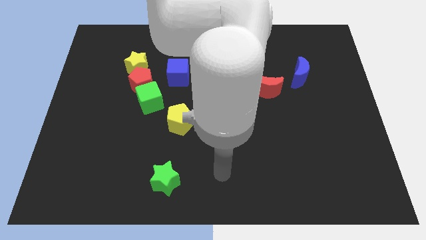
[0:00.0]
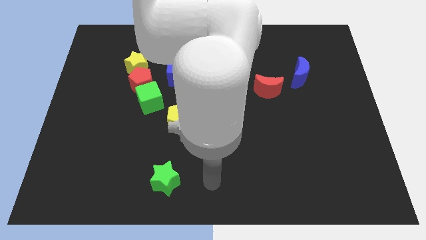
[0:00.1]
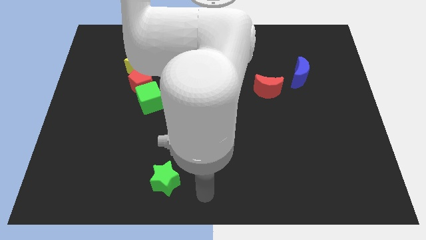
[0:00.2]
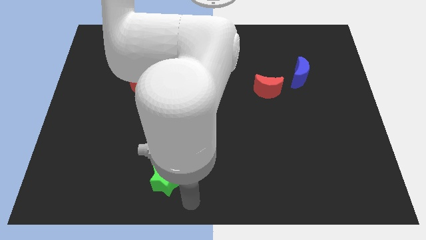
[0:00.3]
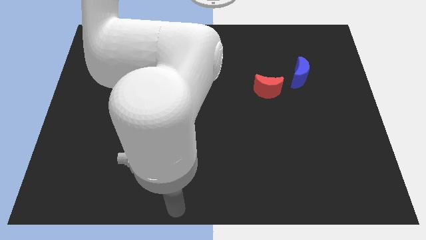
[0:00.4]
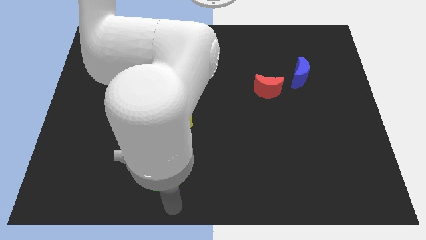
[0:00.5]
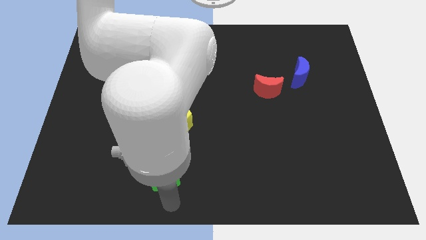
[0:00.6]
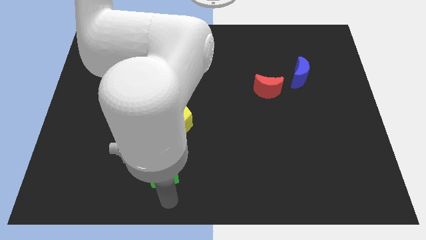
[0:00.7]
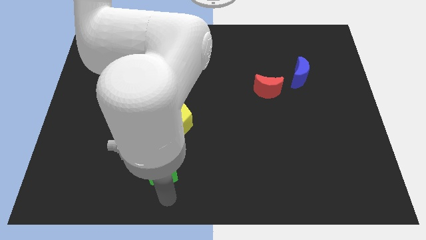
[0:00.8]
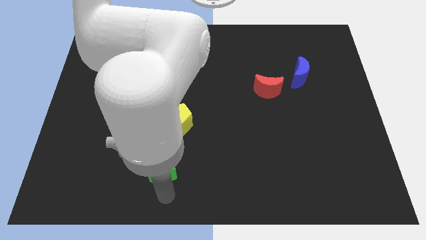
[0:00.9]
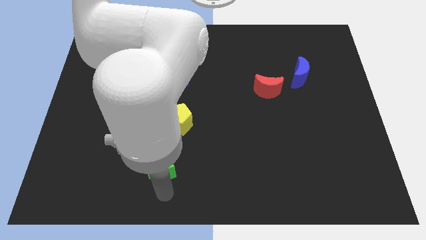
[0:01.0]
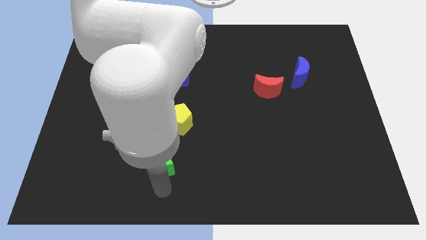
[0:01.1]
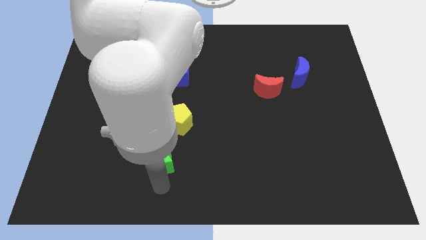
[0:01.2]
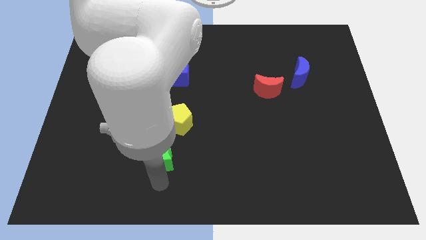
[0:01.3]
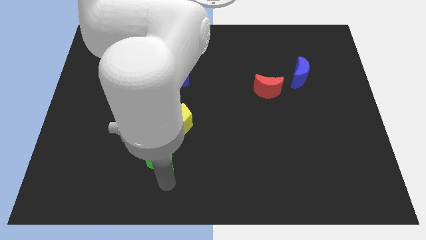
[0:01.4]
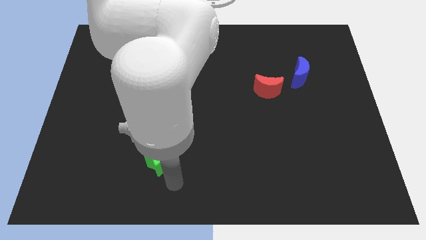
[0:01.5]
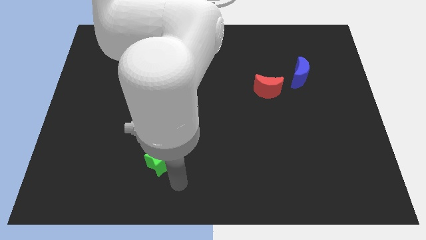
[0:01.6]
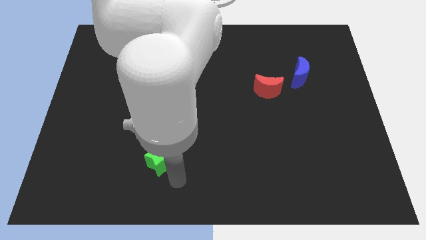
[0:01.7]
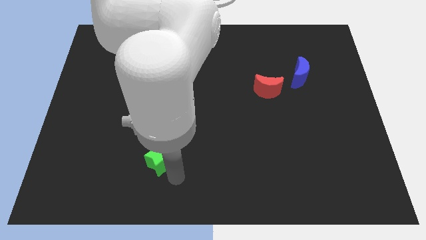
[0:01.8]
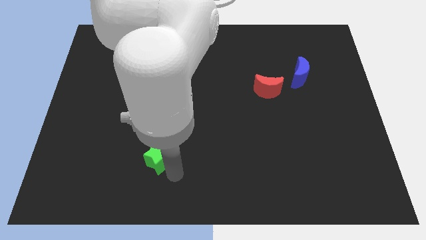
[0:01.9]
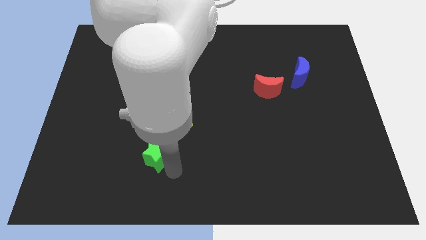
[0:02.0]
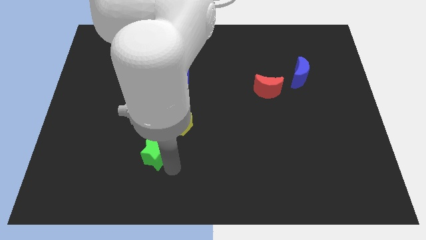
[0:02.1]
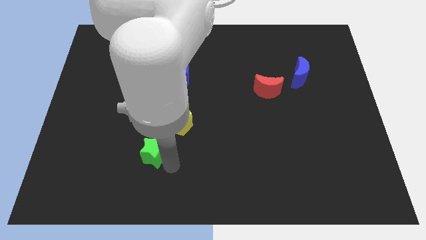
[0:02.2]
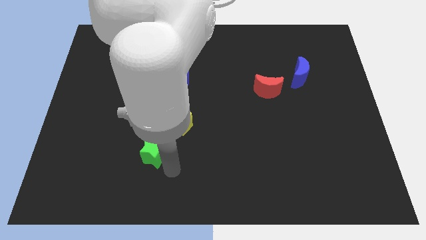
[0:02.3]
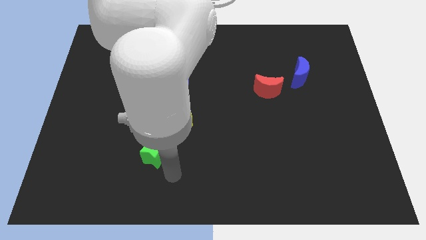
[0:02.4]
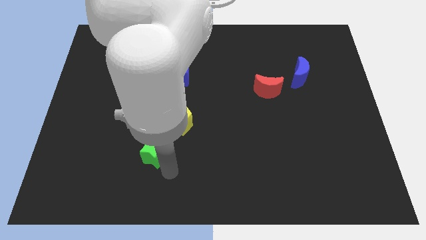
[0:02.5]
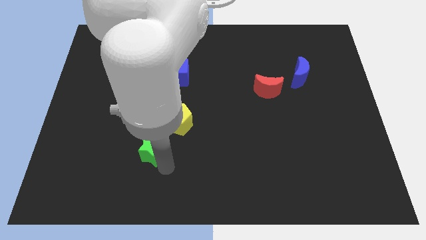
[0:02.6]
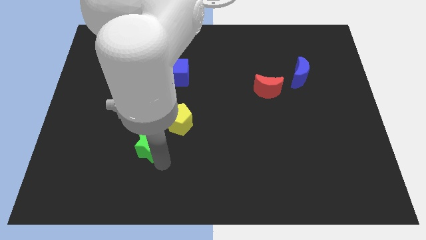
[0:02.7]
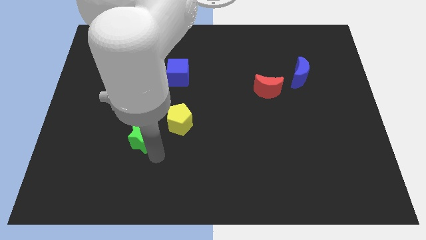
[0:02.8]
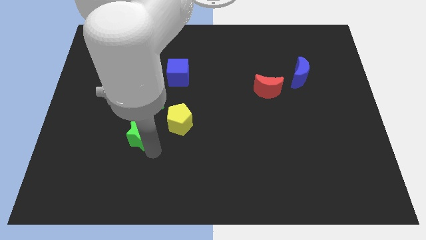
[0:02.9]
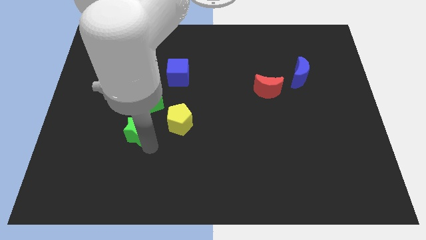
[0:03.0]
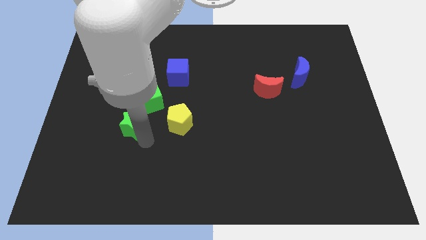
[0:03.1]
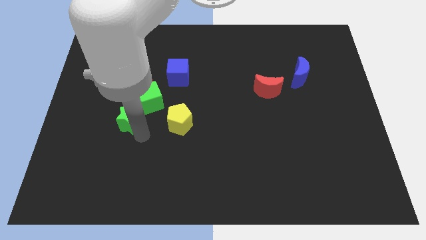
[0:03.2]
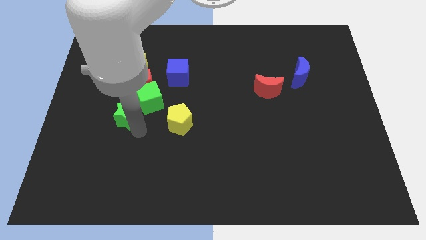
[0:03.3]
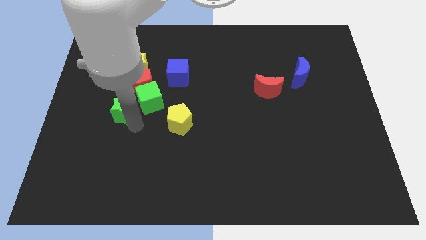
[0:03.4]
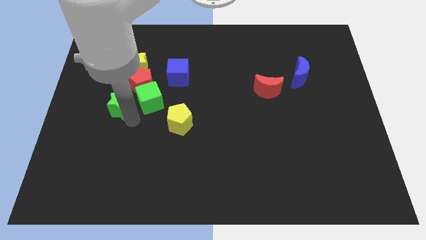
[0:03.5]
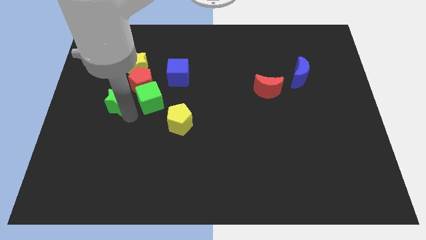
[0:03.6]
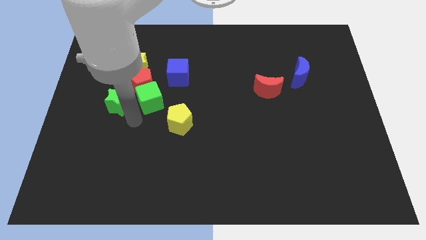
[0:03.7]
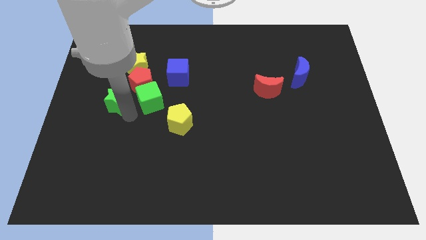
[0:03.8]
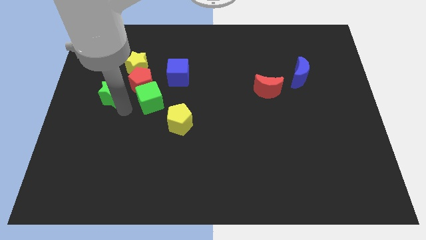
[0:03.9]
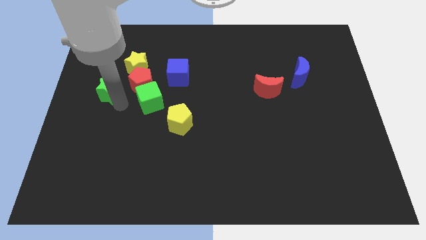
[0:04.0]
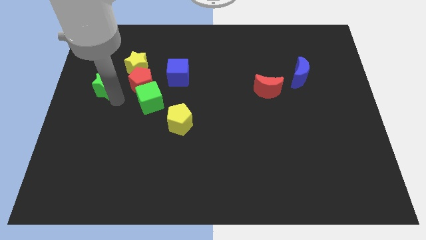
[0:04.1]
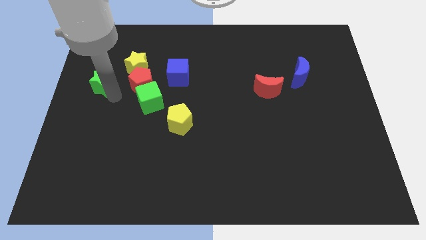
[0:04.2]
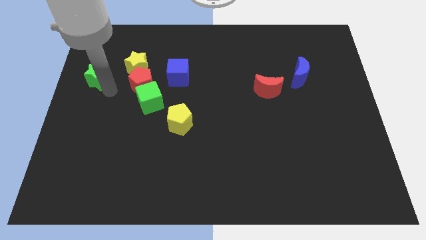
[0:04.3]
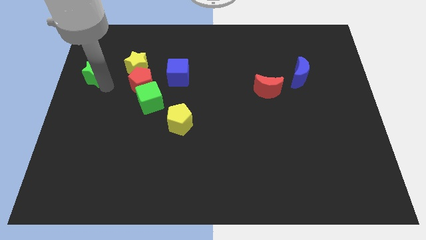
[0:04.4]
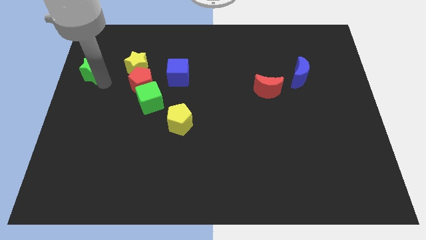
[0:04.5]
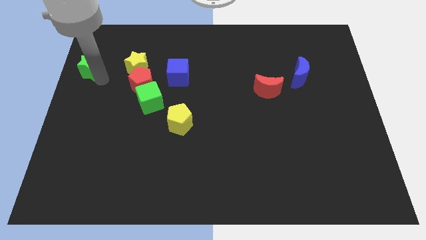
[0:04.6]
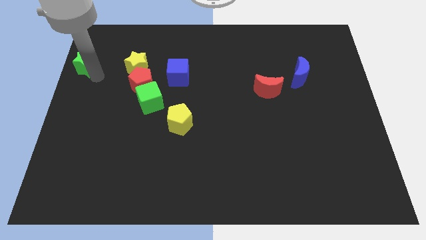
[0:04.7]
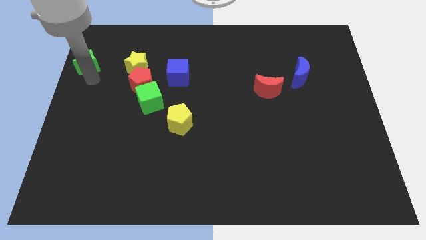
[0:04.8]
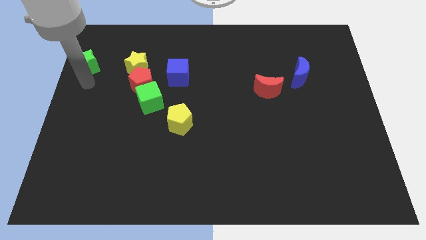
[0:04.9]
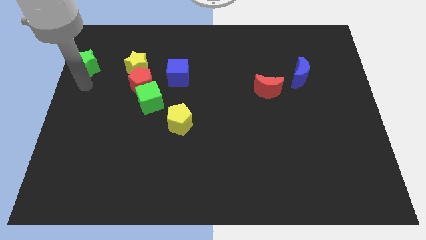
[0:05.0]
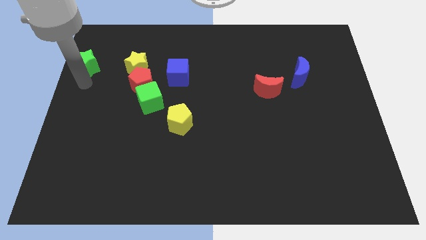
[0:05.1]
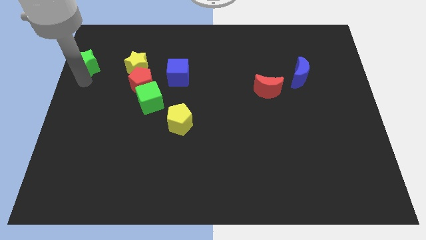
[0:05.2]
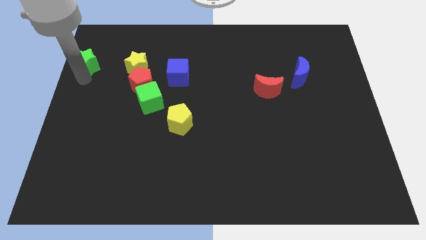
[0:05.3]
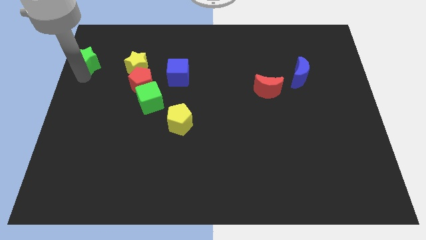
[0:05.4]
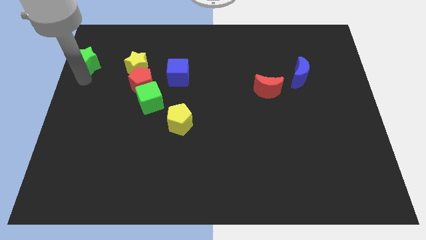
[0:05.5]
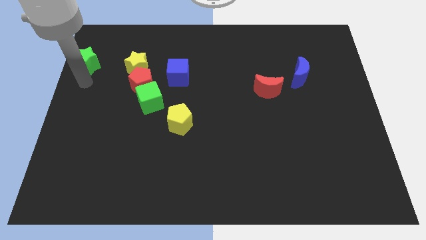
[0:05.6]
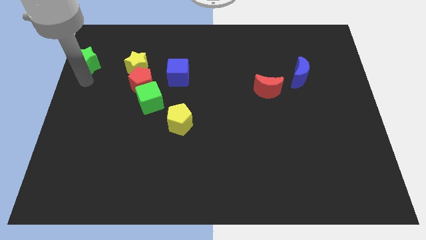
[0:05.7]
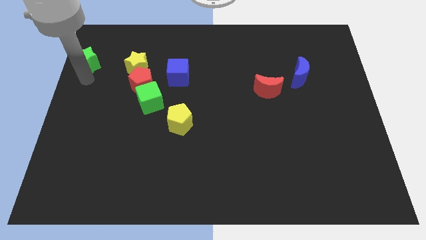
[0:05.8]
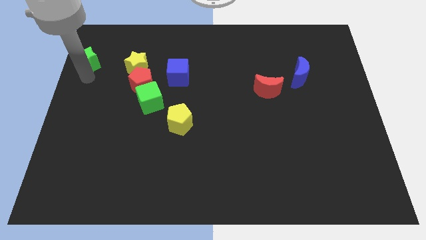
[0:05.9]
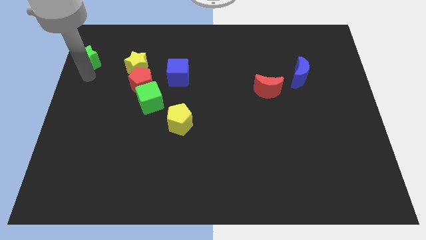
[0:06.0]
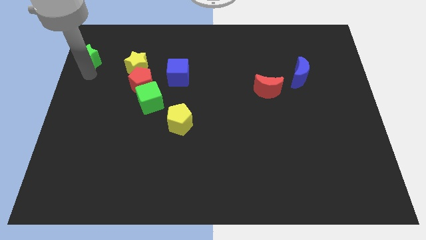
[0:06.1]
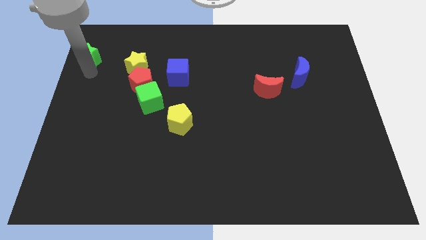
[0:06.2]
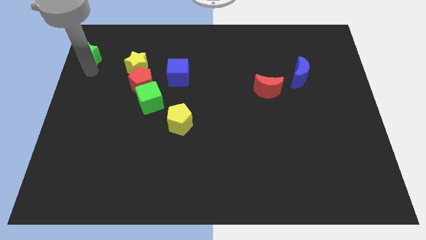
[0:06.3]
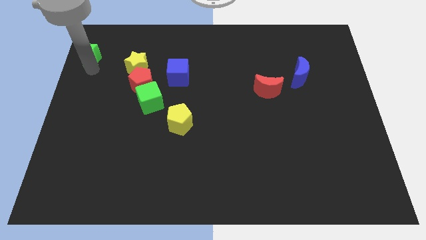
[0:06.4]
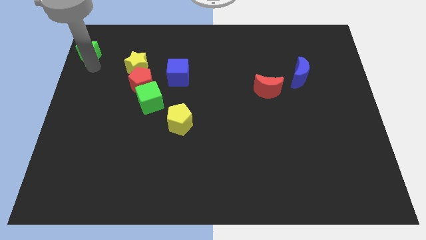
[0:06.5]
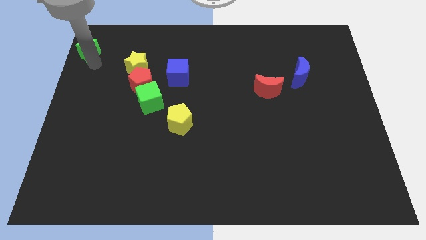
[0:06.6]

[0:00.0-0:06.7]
put the green star to the top left of the board

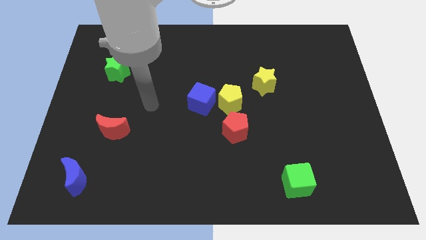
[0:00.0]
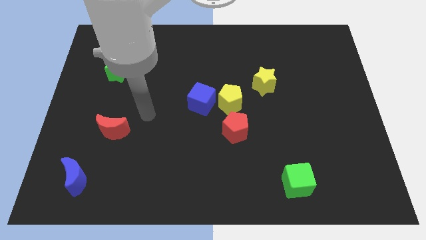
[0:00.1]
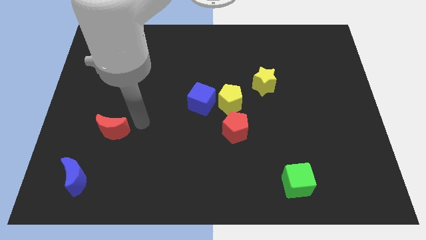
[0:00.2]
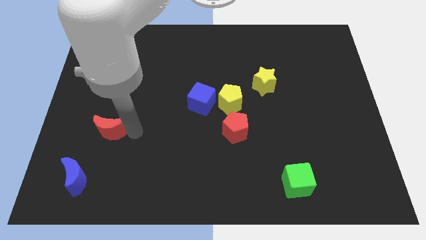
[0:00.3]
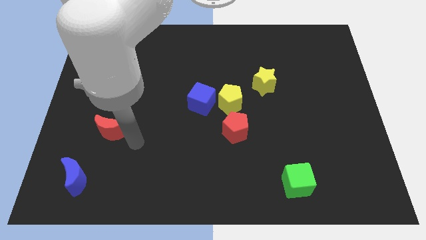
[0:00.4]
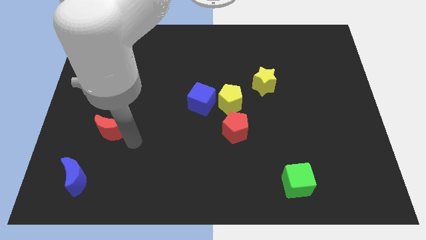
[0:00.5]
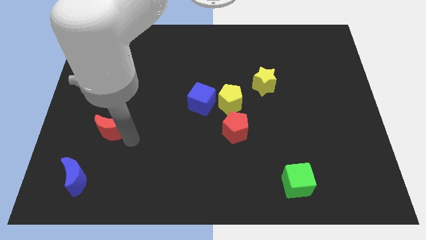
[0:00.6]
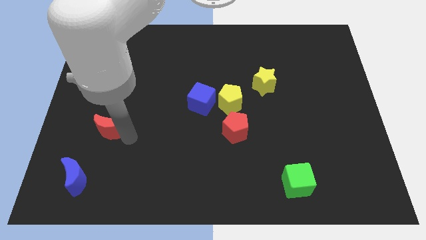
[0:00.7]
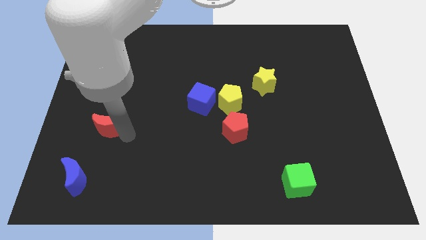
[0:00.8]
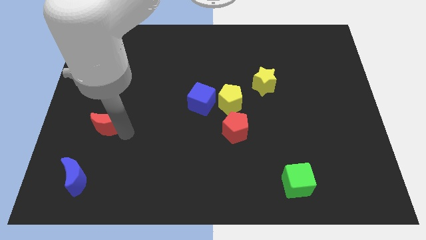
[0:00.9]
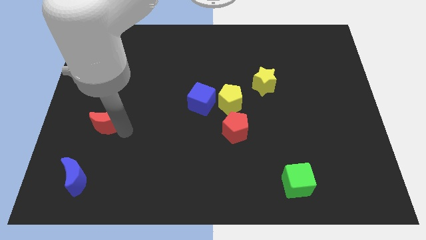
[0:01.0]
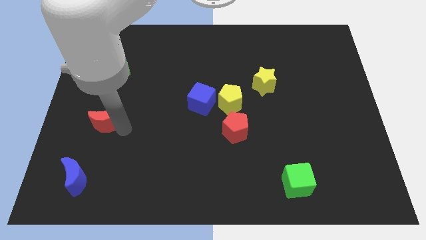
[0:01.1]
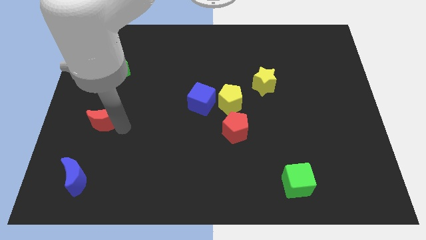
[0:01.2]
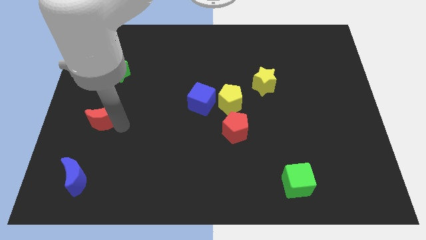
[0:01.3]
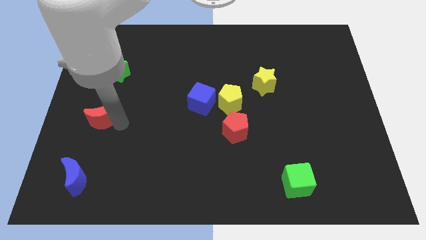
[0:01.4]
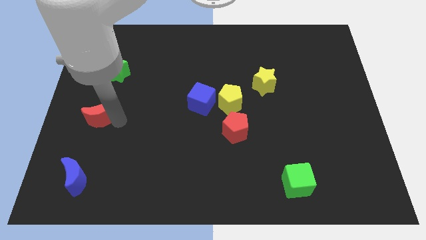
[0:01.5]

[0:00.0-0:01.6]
move the red moon to the left side of the board
